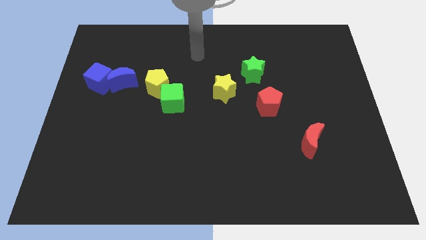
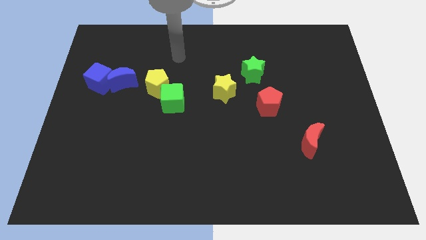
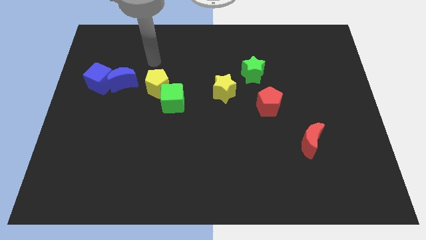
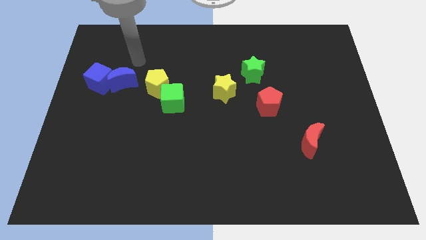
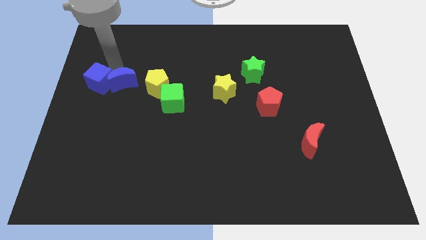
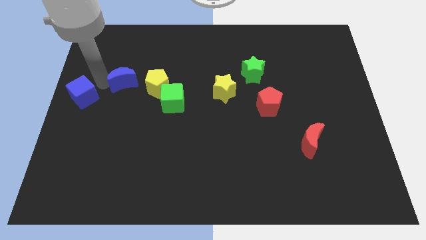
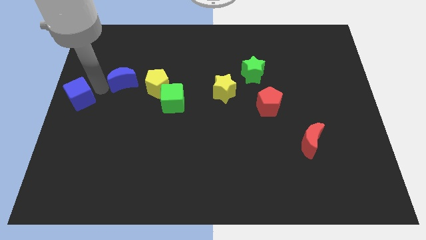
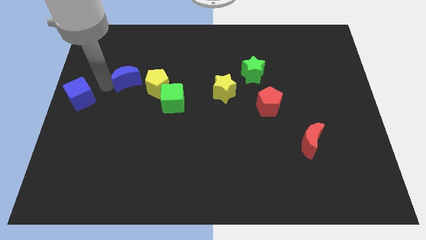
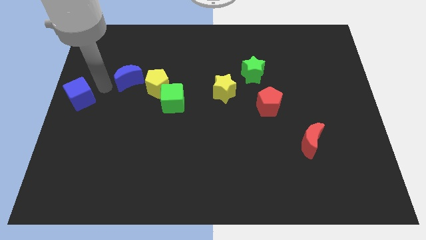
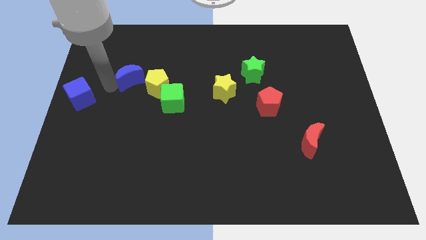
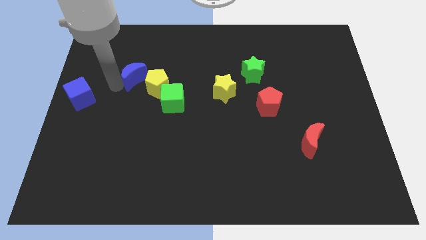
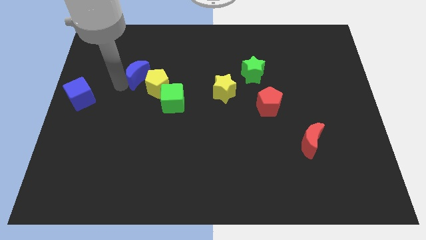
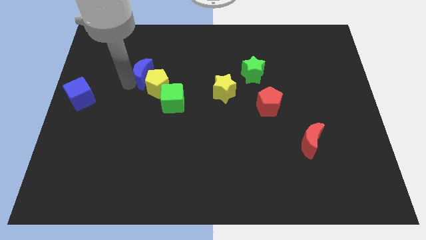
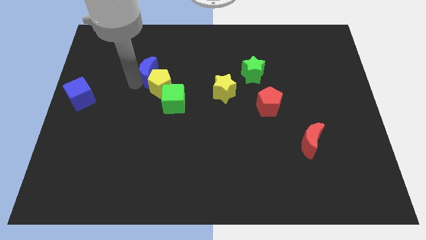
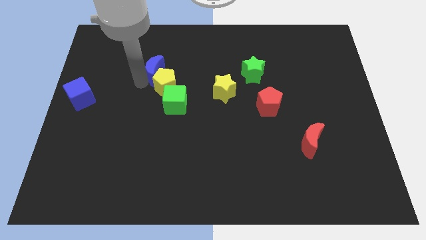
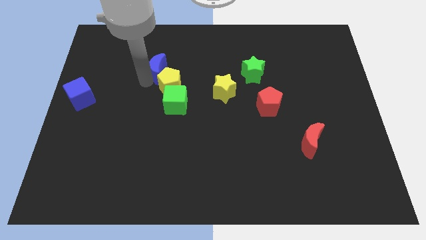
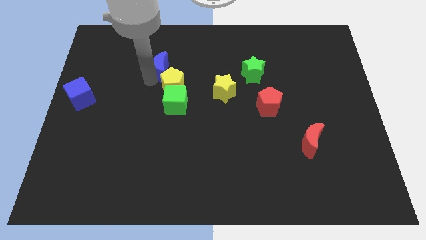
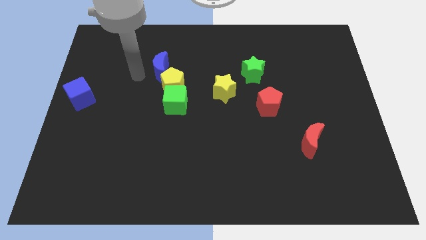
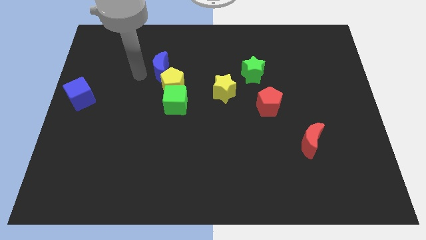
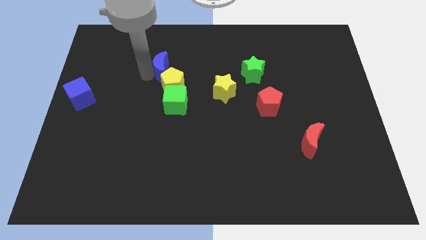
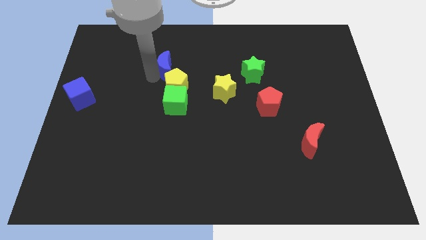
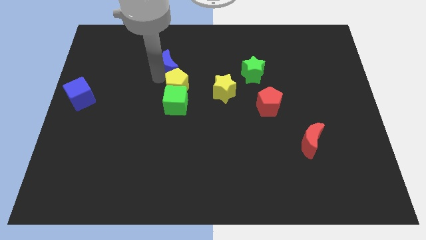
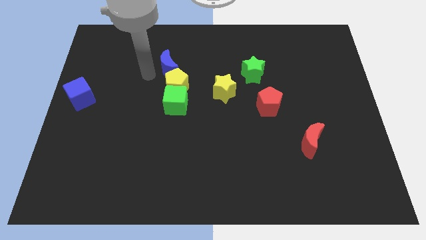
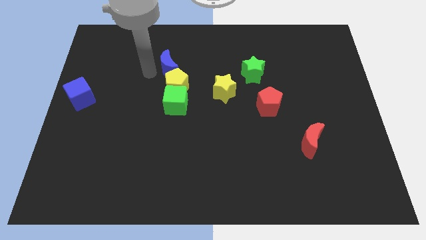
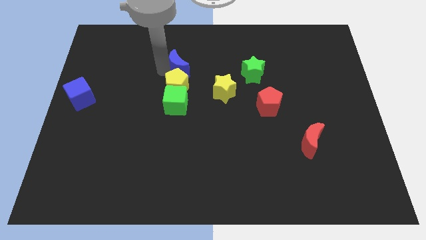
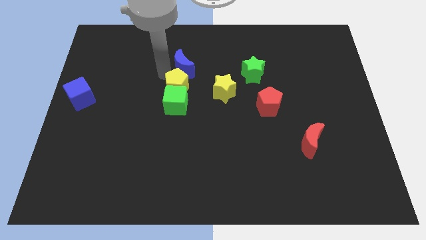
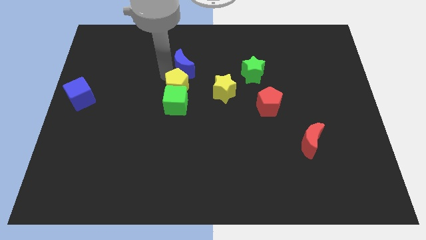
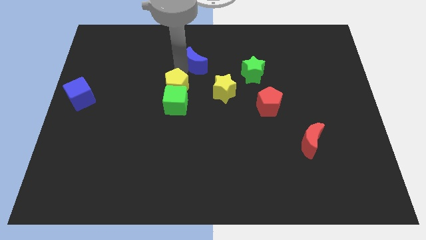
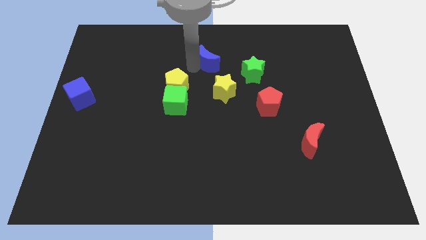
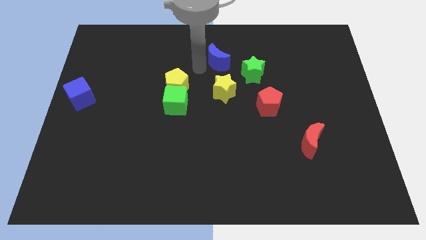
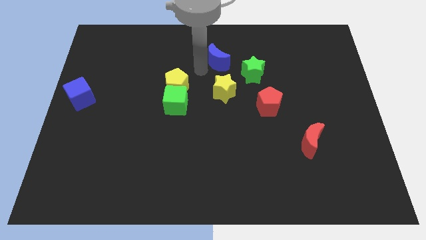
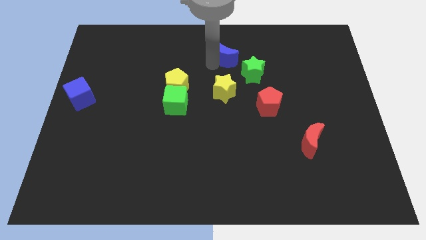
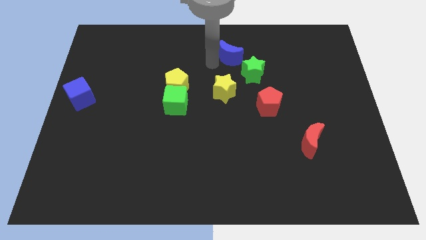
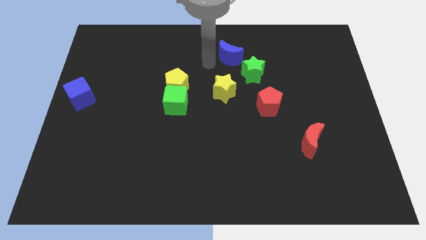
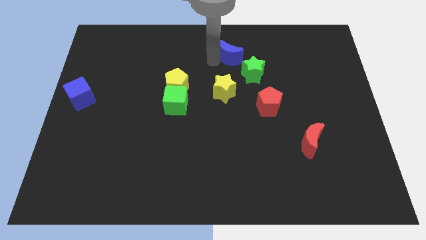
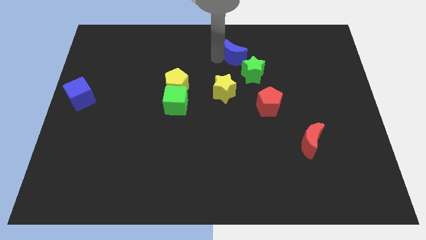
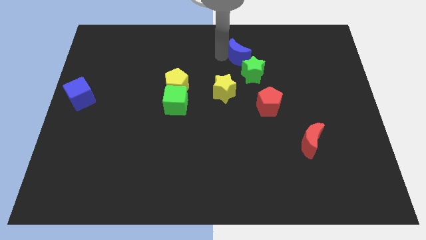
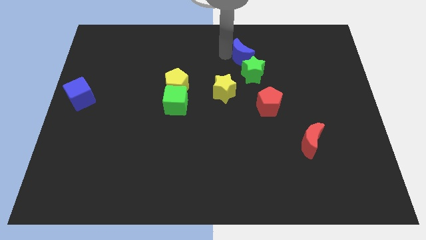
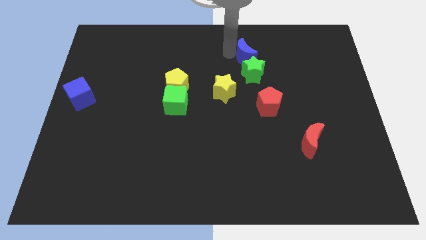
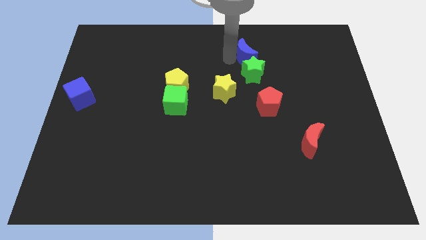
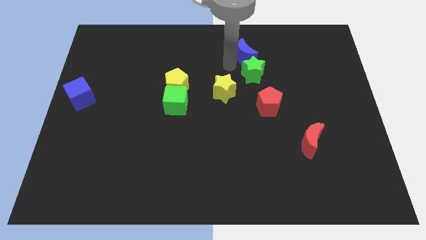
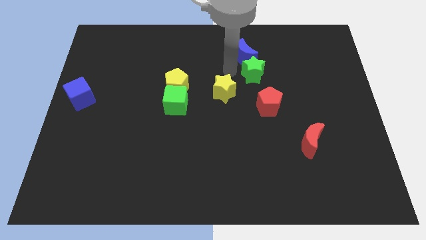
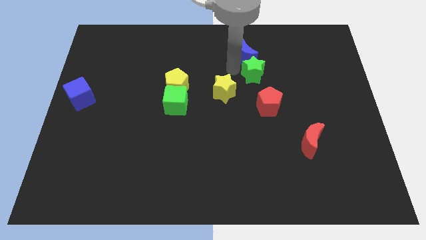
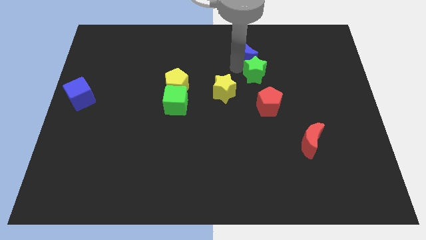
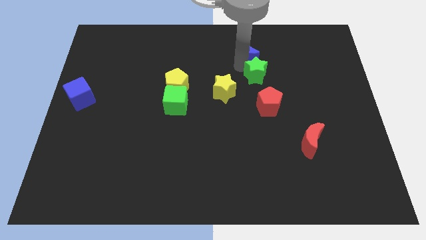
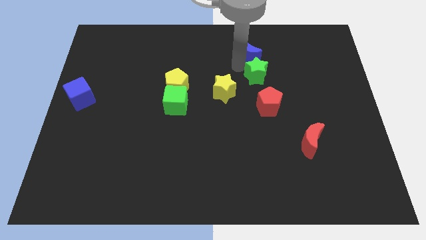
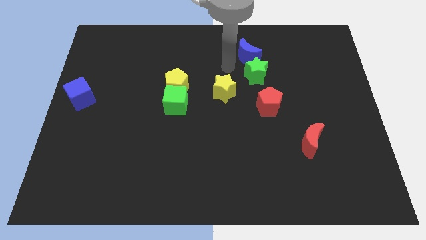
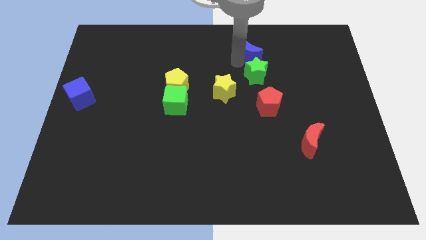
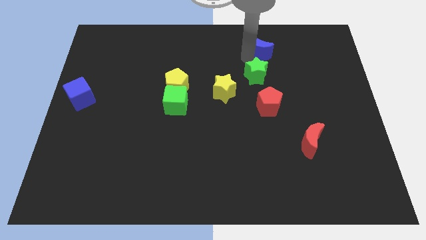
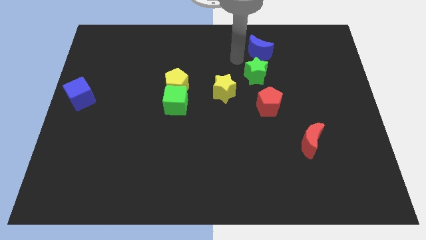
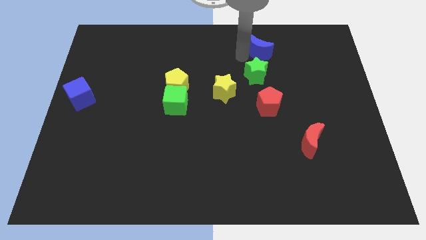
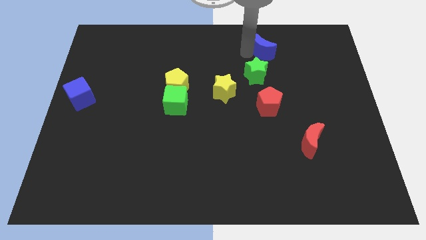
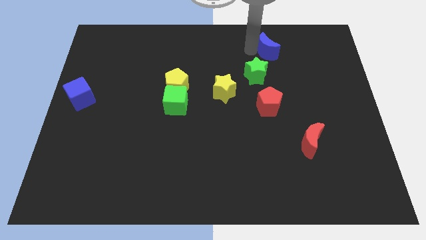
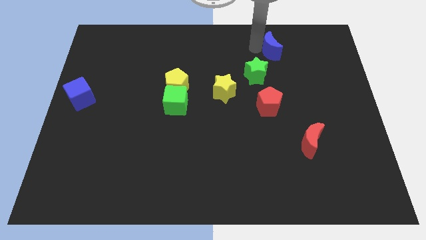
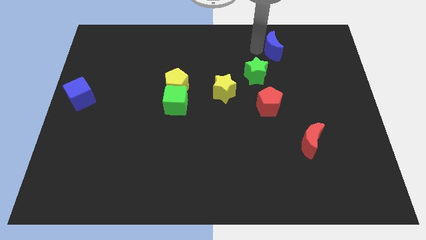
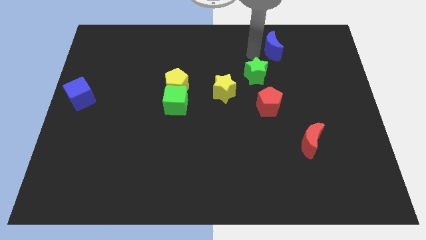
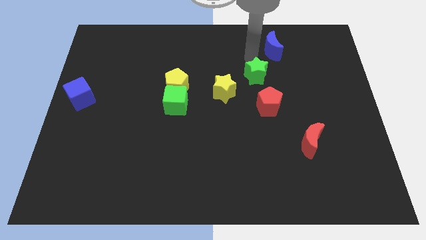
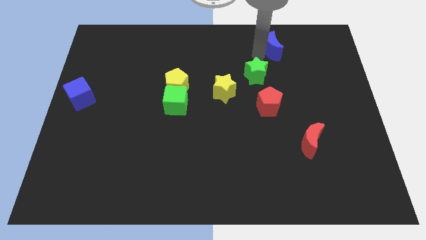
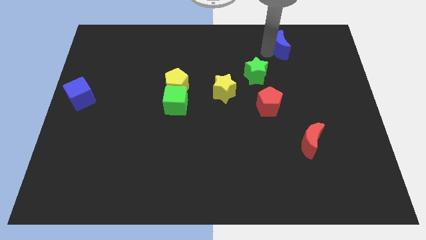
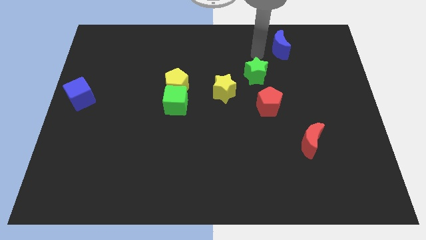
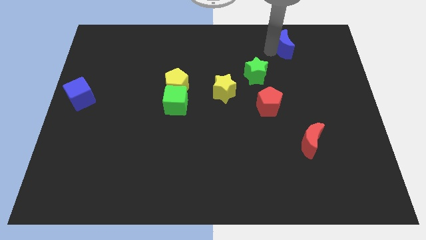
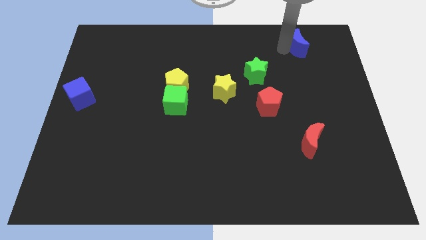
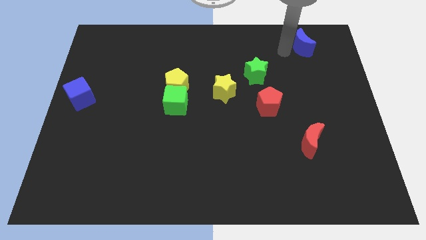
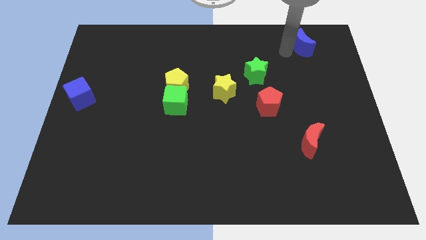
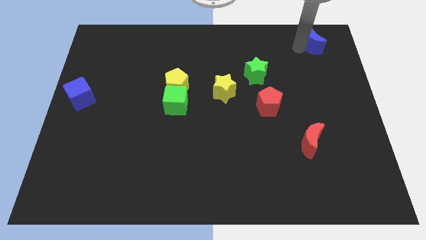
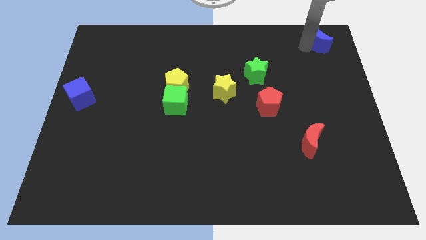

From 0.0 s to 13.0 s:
move the blue moon to the upper right corner

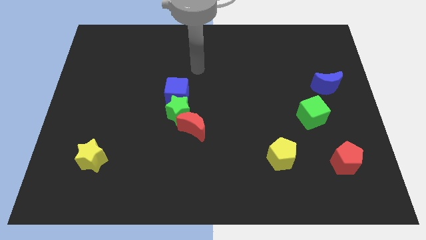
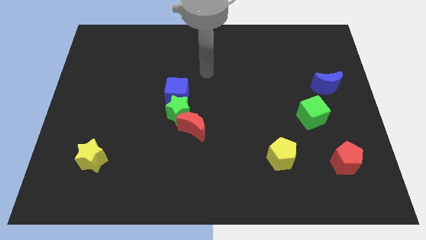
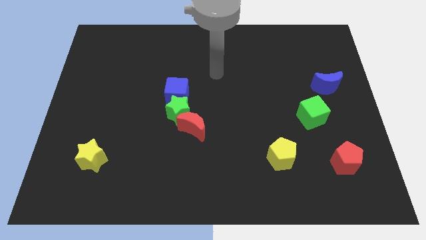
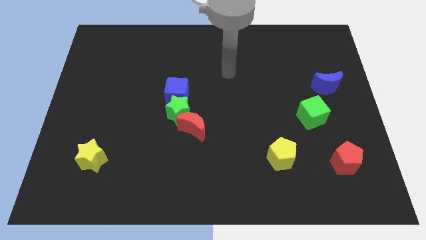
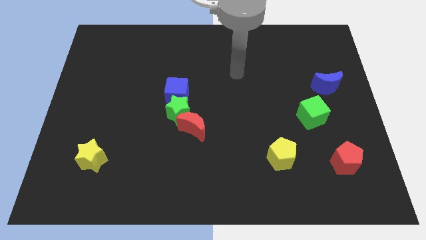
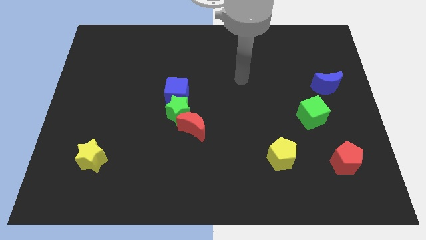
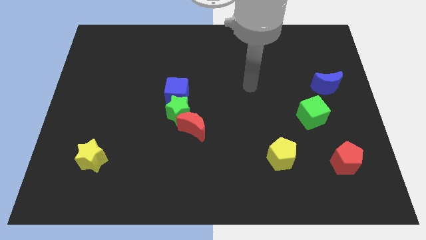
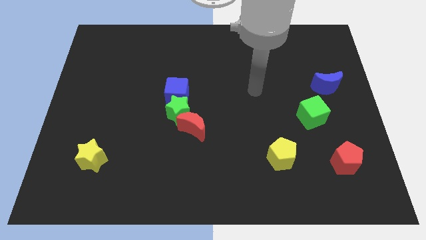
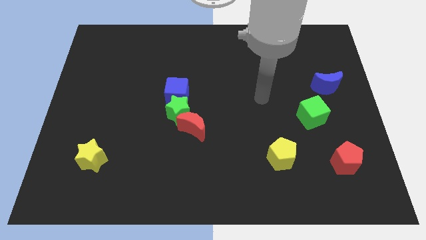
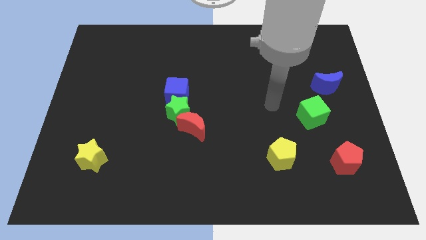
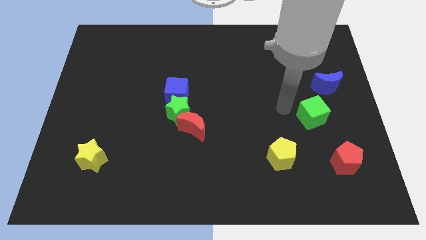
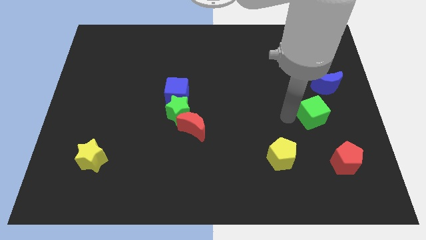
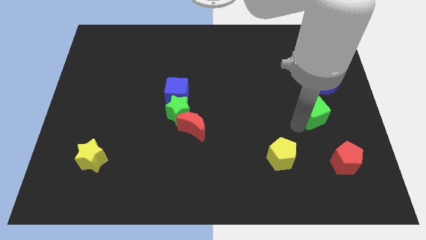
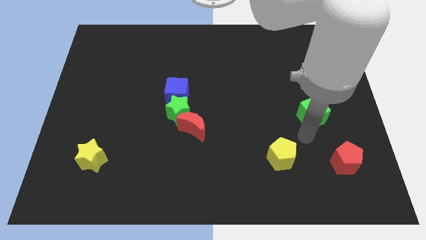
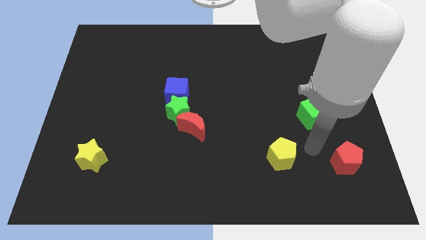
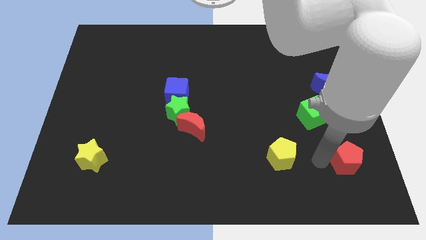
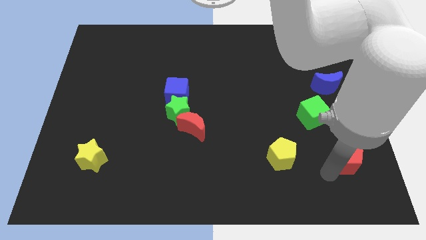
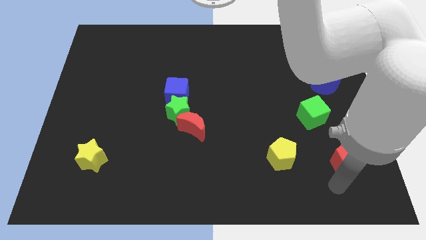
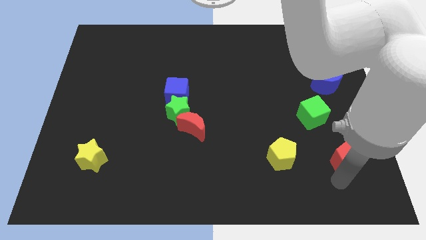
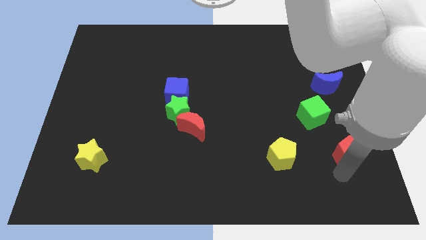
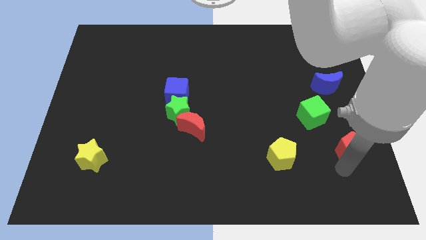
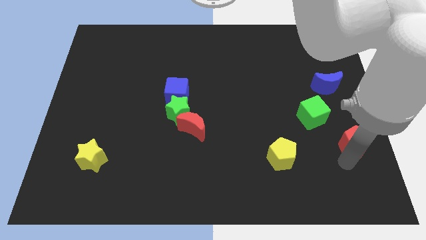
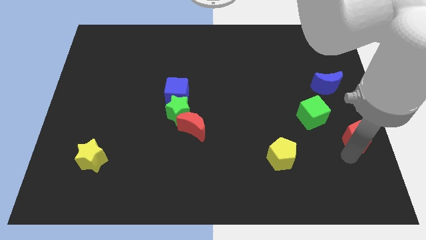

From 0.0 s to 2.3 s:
slide the red pentagon to the center right
